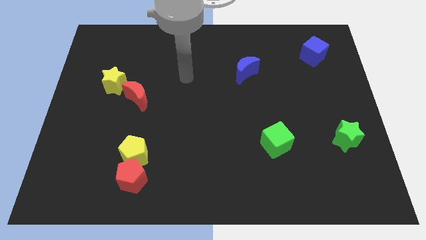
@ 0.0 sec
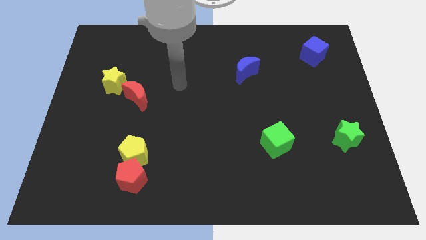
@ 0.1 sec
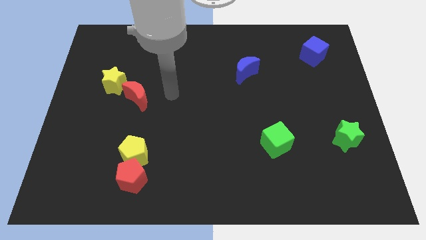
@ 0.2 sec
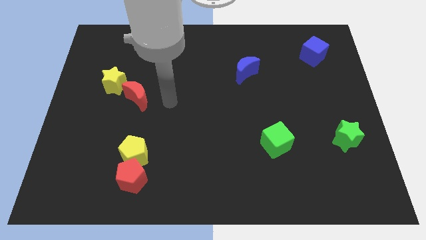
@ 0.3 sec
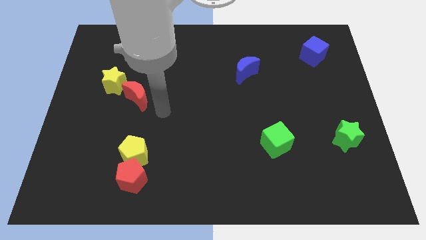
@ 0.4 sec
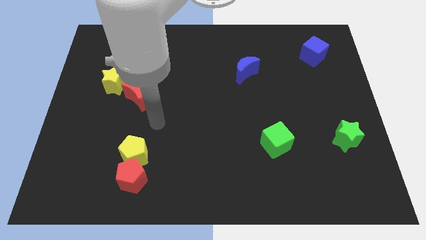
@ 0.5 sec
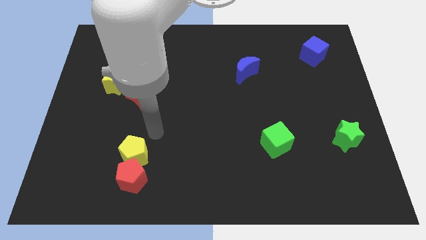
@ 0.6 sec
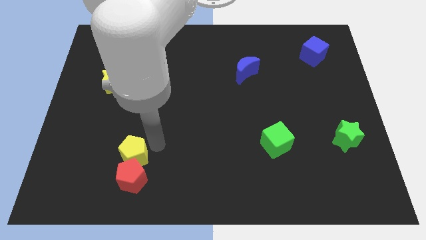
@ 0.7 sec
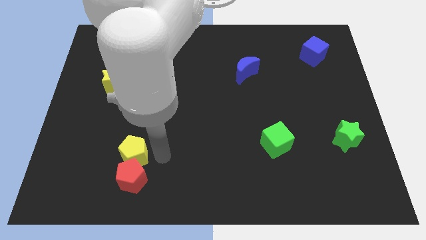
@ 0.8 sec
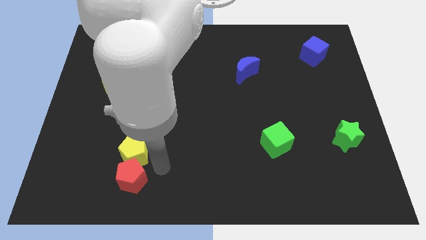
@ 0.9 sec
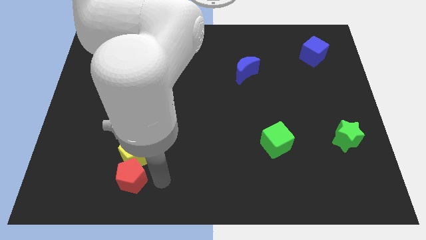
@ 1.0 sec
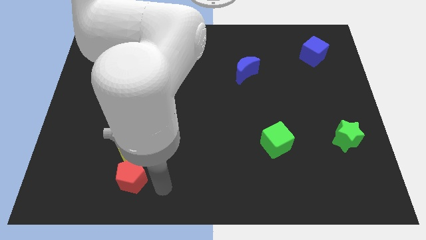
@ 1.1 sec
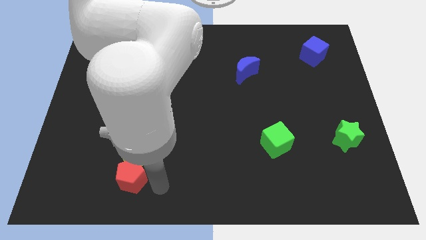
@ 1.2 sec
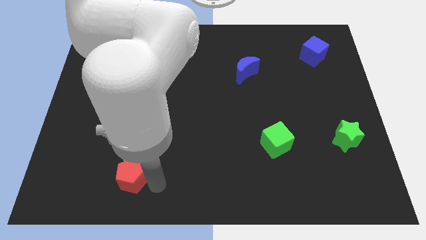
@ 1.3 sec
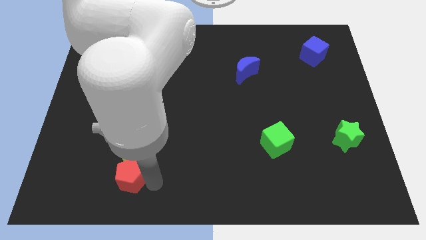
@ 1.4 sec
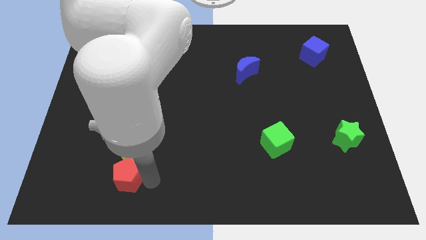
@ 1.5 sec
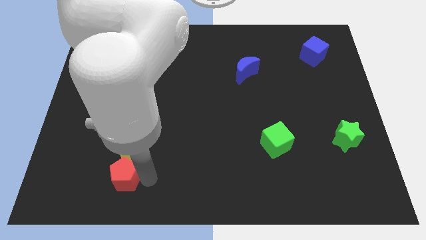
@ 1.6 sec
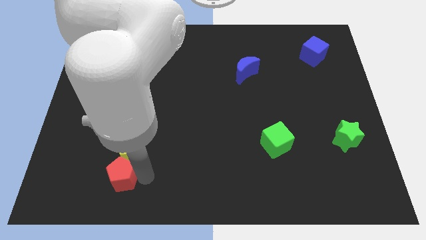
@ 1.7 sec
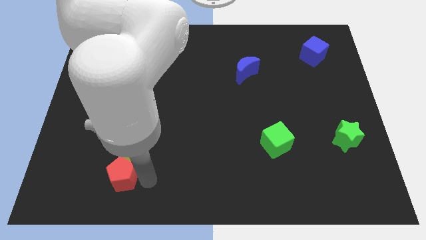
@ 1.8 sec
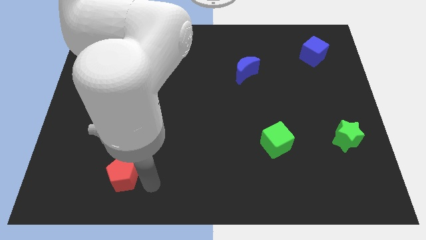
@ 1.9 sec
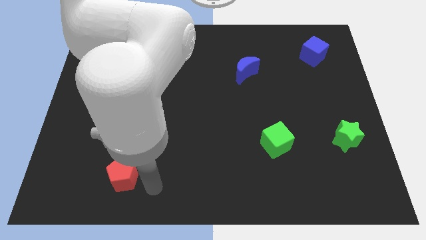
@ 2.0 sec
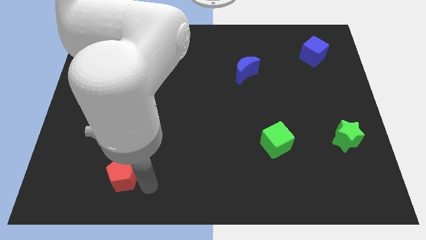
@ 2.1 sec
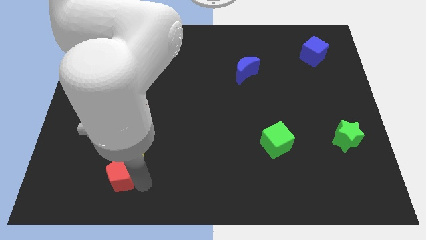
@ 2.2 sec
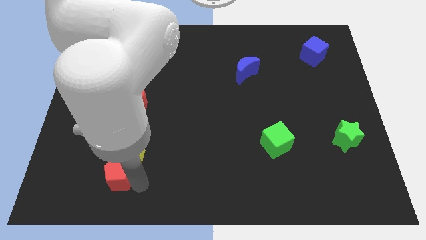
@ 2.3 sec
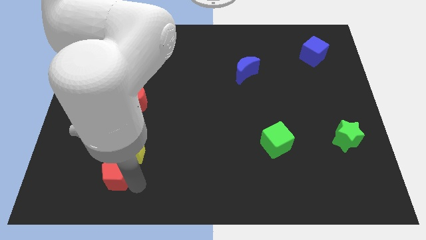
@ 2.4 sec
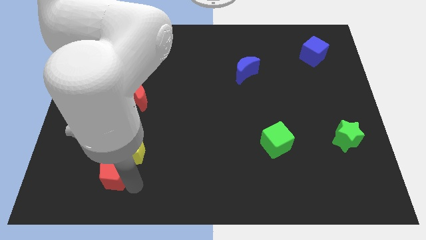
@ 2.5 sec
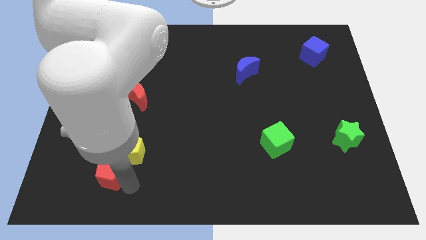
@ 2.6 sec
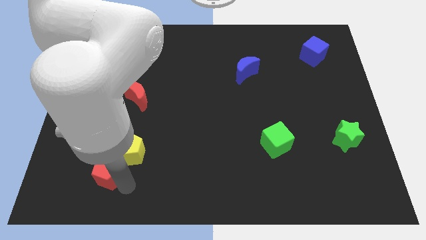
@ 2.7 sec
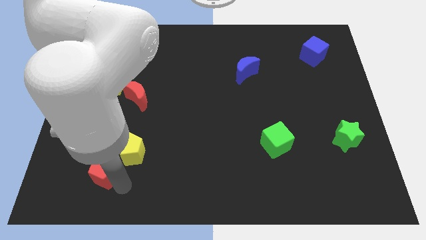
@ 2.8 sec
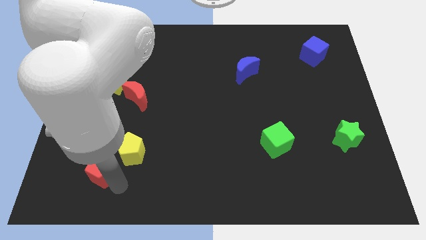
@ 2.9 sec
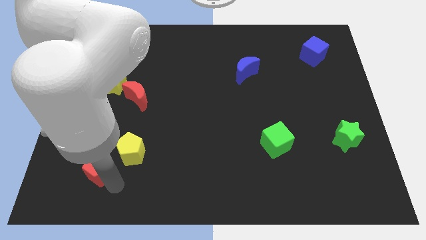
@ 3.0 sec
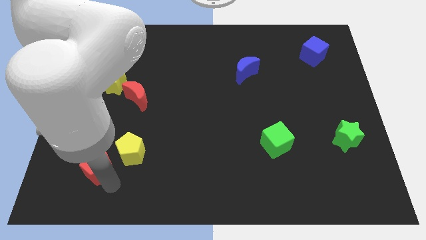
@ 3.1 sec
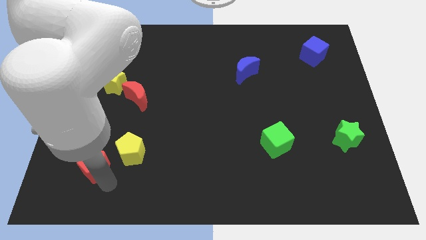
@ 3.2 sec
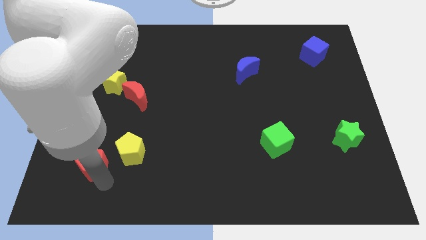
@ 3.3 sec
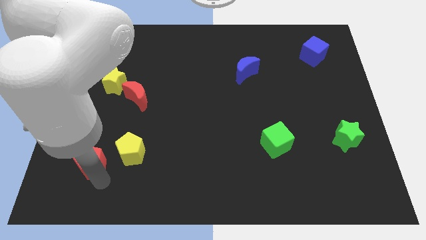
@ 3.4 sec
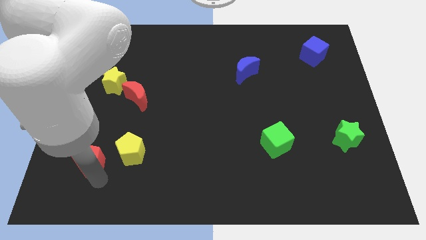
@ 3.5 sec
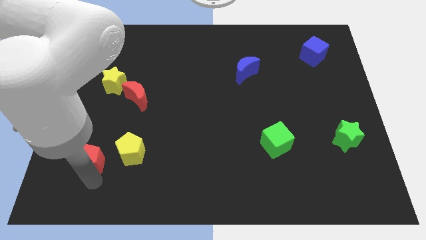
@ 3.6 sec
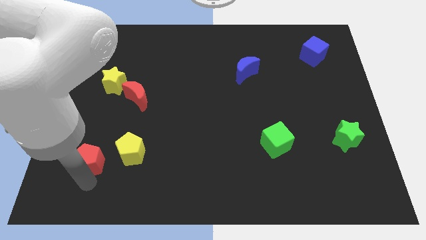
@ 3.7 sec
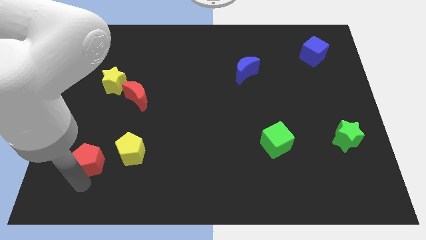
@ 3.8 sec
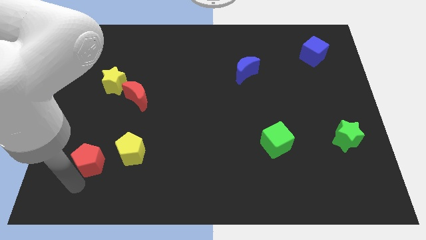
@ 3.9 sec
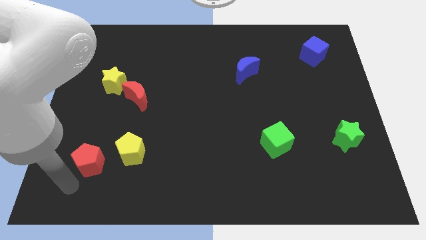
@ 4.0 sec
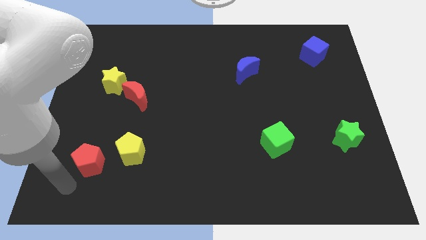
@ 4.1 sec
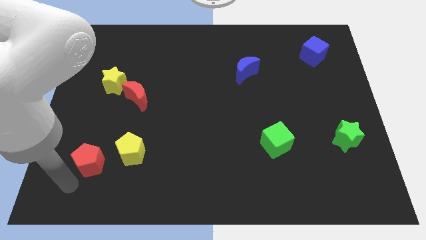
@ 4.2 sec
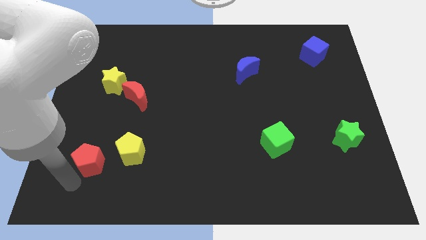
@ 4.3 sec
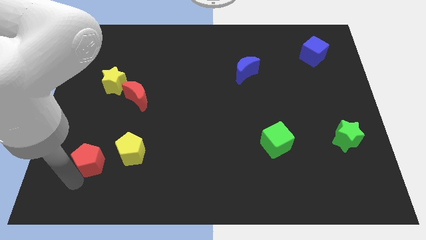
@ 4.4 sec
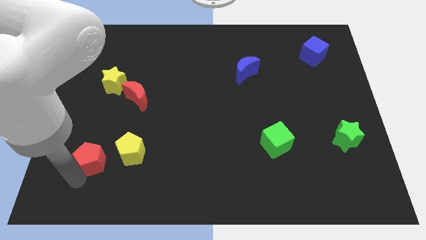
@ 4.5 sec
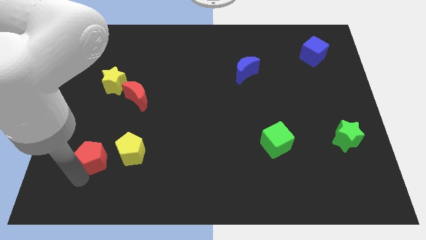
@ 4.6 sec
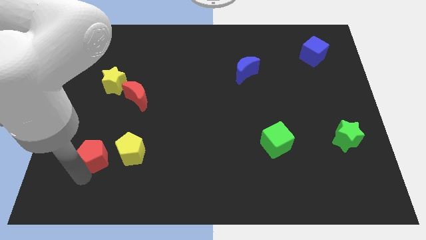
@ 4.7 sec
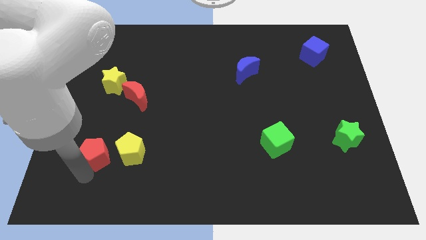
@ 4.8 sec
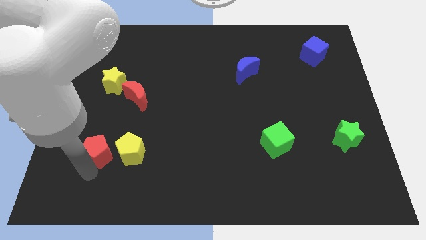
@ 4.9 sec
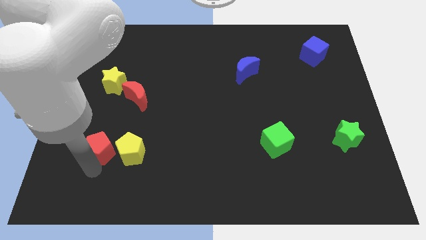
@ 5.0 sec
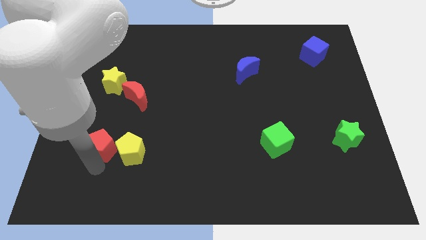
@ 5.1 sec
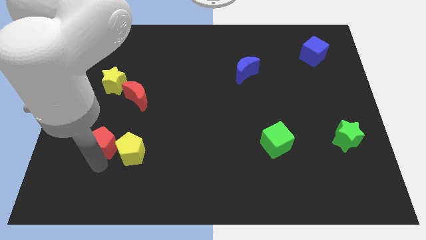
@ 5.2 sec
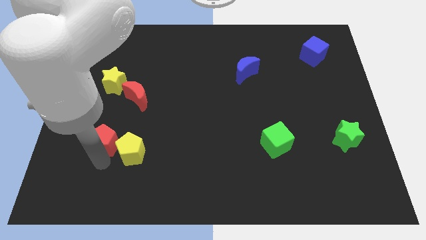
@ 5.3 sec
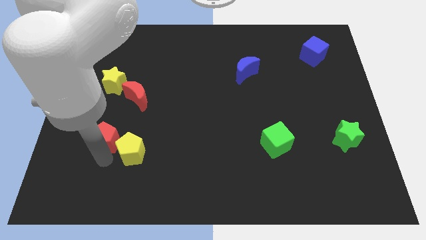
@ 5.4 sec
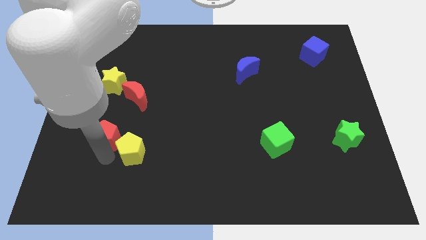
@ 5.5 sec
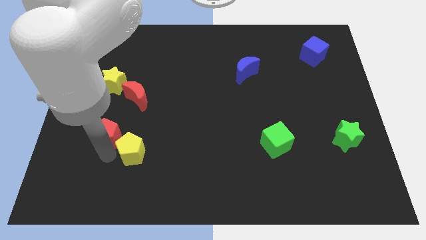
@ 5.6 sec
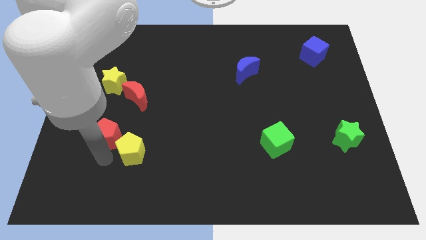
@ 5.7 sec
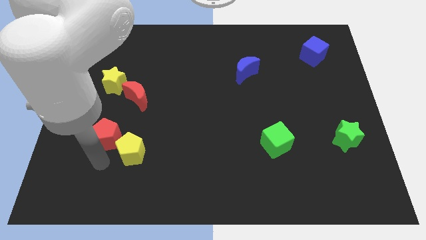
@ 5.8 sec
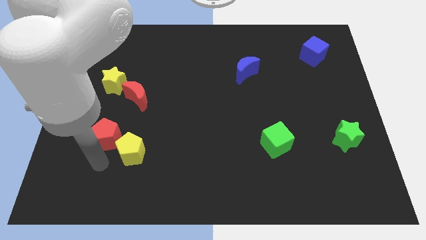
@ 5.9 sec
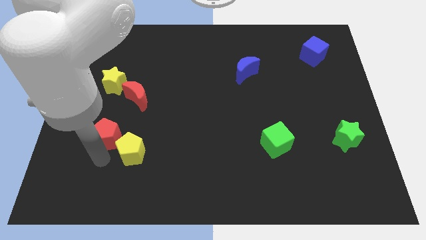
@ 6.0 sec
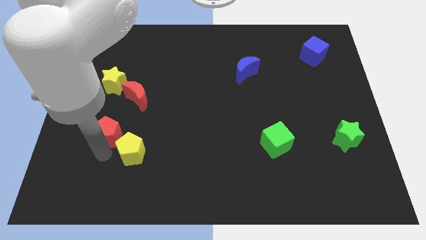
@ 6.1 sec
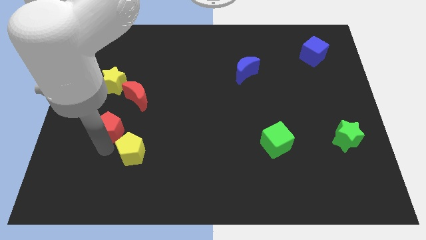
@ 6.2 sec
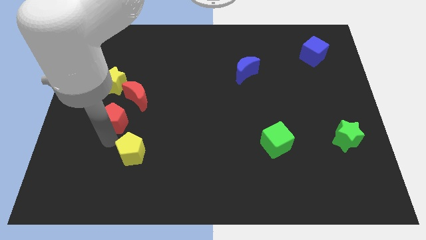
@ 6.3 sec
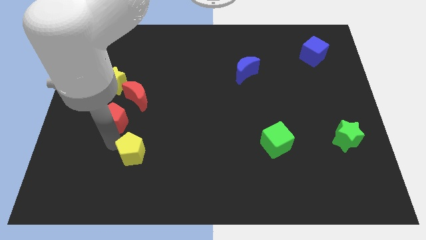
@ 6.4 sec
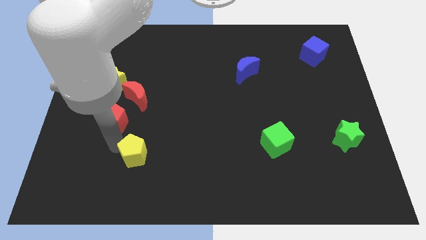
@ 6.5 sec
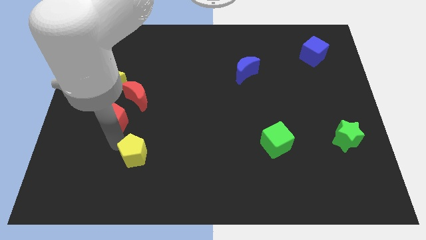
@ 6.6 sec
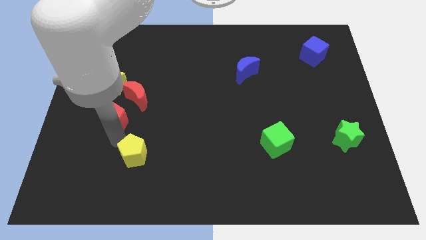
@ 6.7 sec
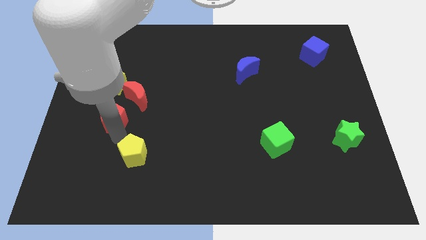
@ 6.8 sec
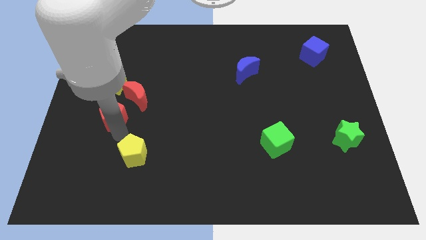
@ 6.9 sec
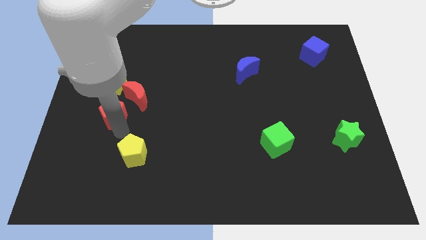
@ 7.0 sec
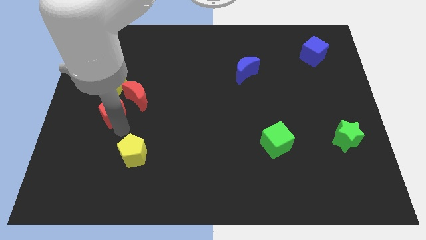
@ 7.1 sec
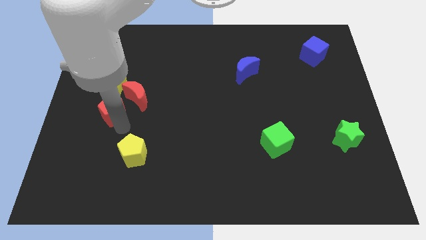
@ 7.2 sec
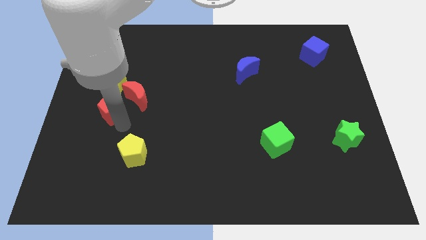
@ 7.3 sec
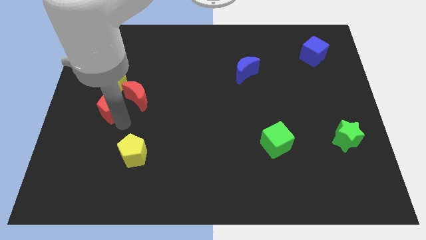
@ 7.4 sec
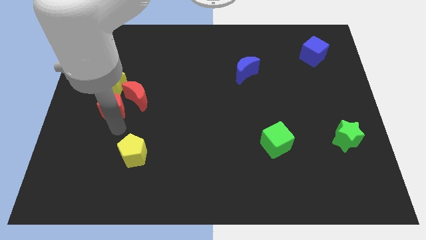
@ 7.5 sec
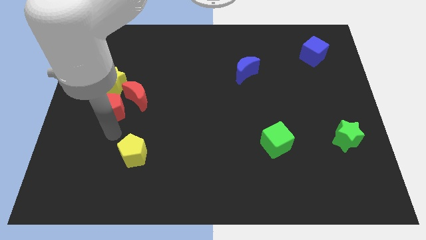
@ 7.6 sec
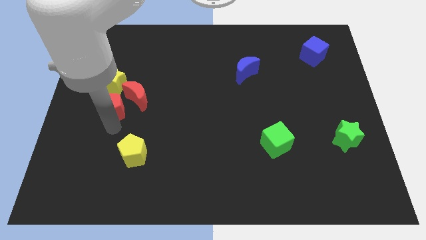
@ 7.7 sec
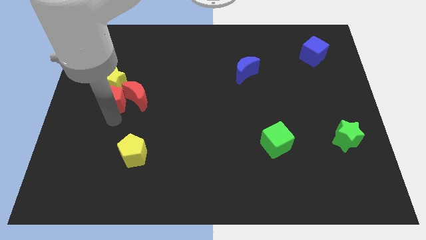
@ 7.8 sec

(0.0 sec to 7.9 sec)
put the red pentagon to the yellow star
